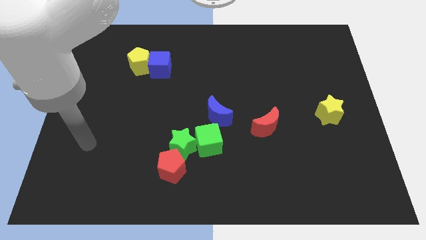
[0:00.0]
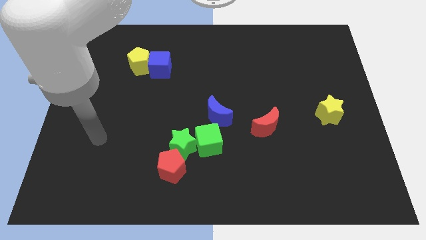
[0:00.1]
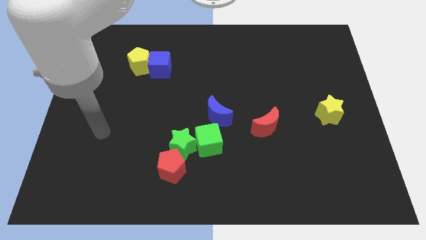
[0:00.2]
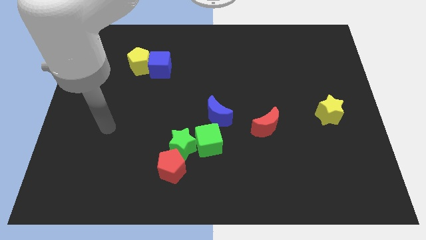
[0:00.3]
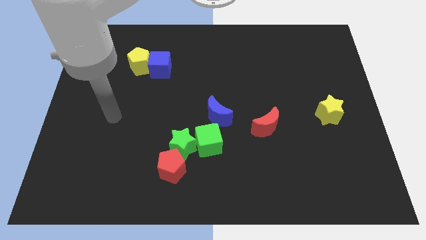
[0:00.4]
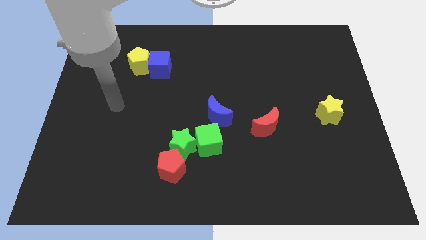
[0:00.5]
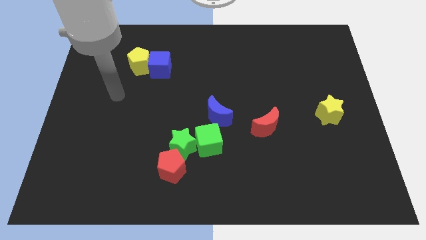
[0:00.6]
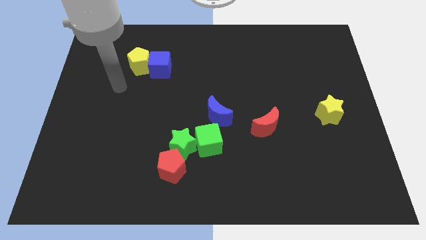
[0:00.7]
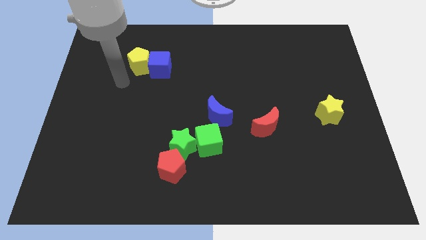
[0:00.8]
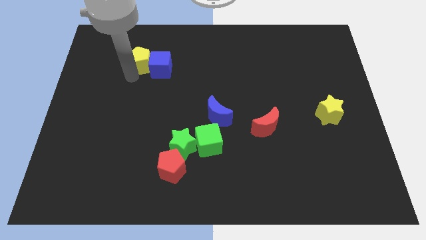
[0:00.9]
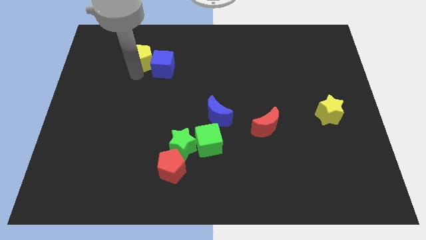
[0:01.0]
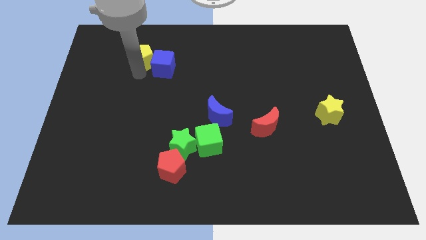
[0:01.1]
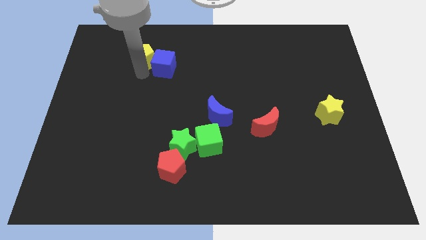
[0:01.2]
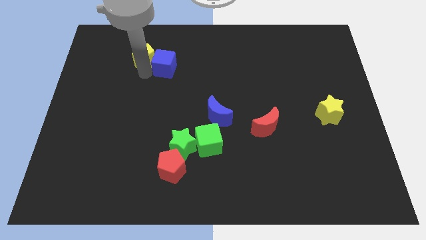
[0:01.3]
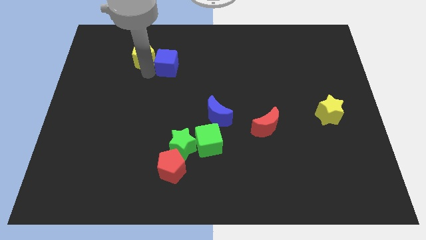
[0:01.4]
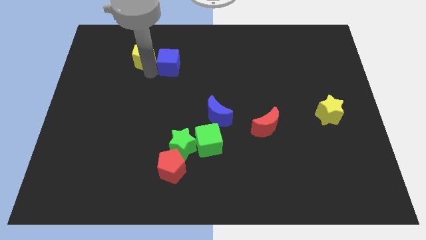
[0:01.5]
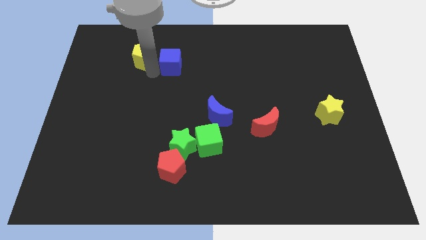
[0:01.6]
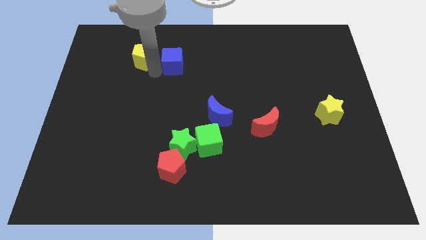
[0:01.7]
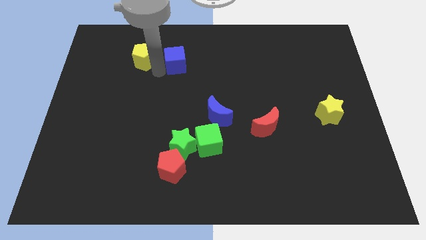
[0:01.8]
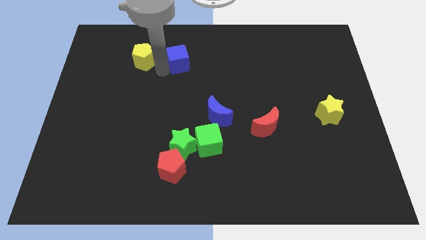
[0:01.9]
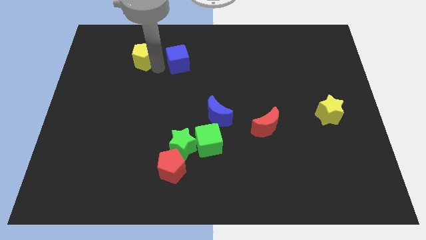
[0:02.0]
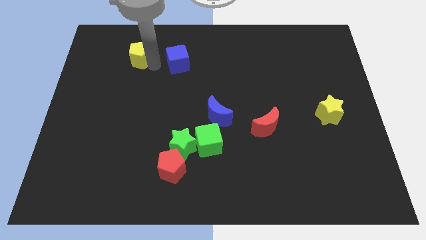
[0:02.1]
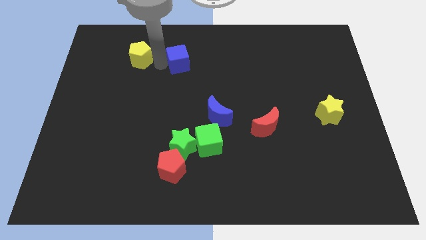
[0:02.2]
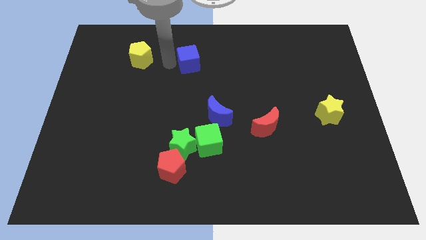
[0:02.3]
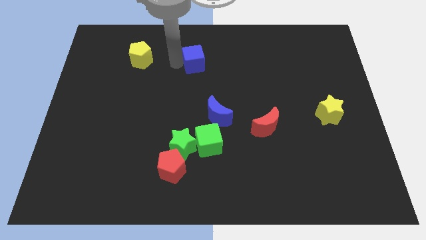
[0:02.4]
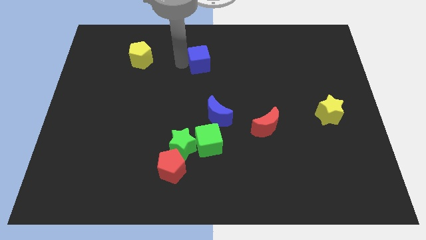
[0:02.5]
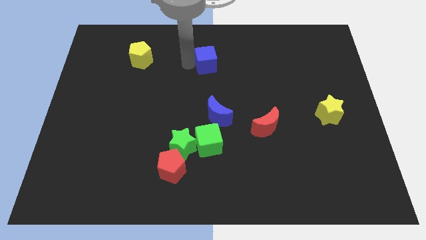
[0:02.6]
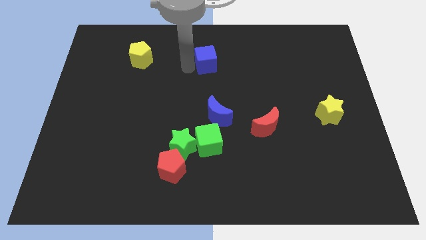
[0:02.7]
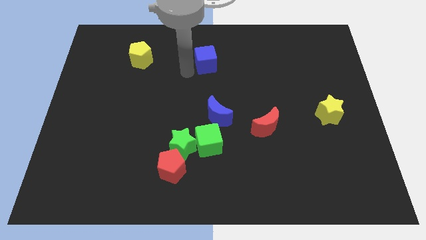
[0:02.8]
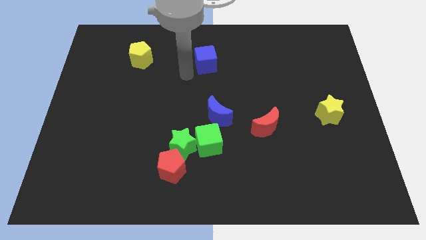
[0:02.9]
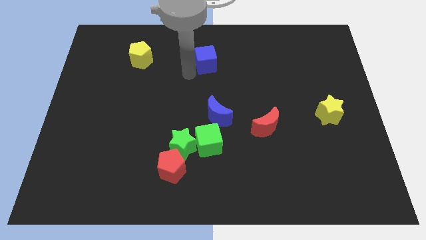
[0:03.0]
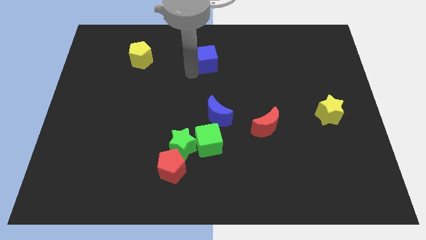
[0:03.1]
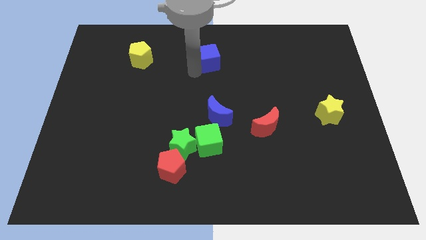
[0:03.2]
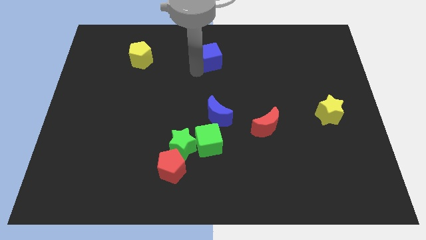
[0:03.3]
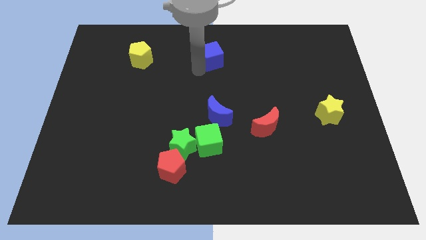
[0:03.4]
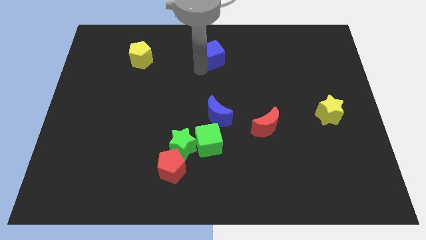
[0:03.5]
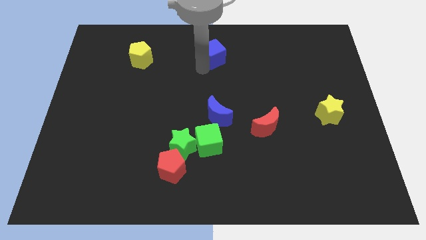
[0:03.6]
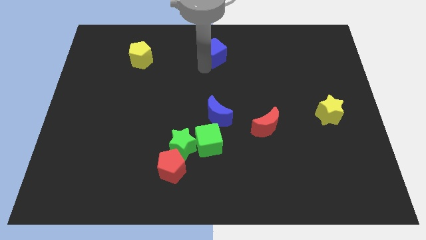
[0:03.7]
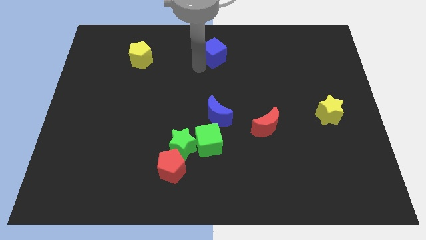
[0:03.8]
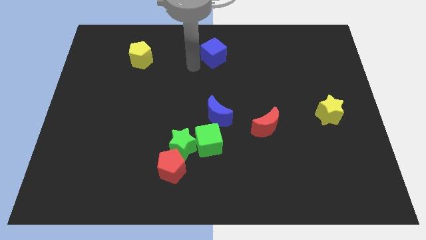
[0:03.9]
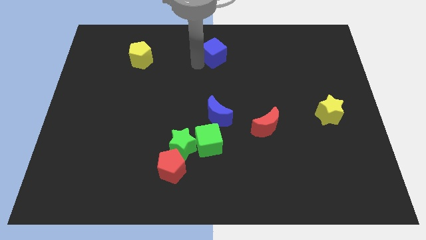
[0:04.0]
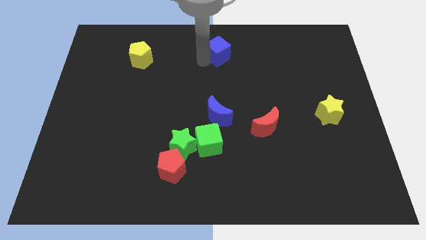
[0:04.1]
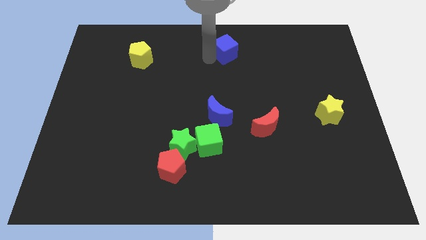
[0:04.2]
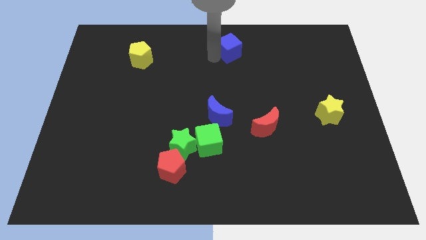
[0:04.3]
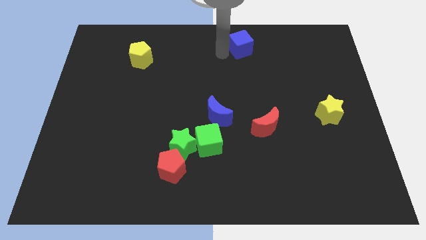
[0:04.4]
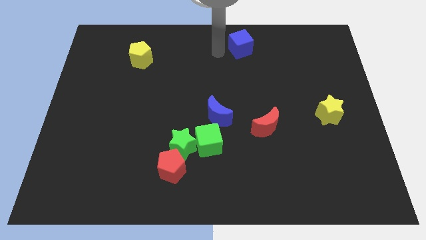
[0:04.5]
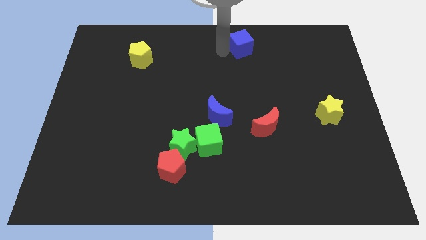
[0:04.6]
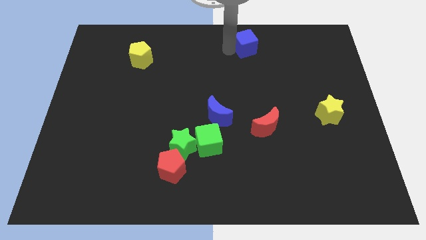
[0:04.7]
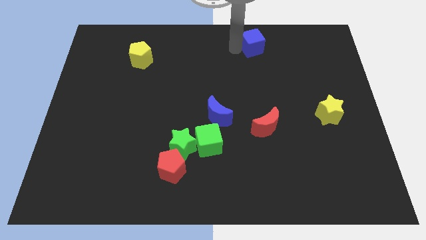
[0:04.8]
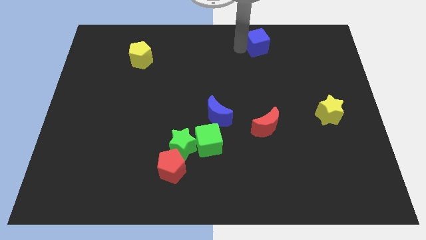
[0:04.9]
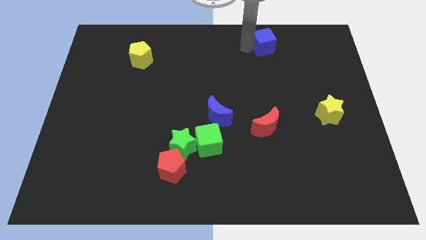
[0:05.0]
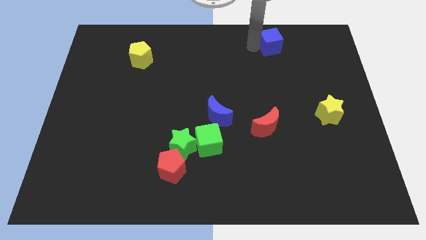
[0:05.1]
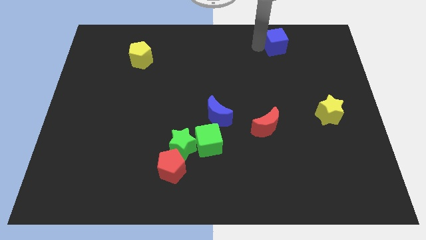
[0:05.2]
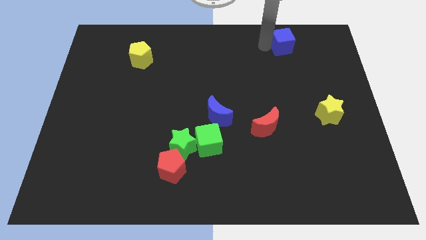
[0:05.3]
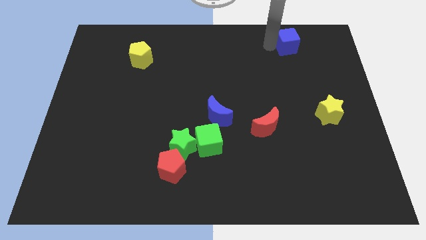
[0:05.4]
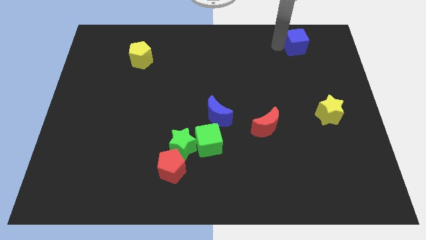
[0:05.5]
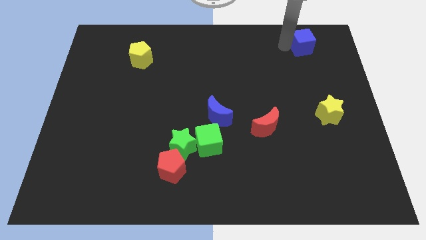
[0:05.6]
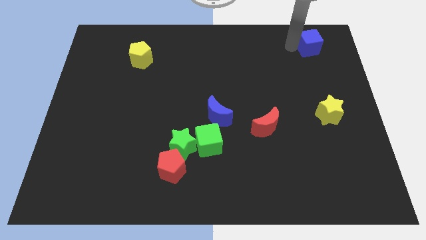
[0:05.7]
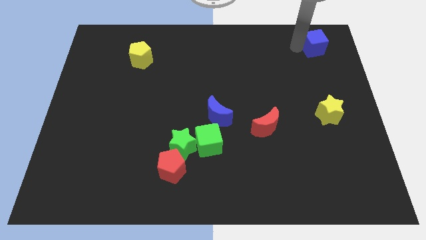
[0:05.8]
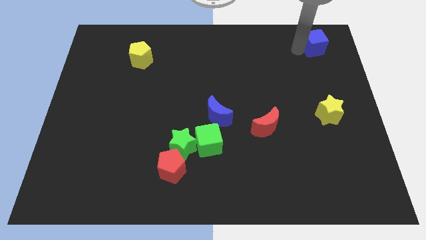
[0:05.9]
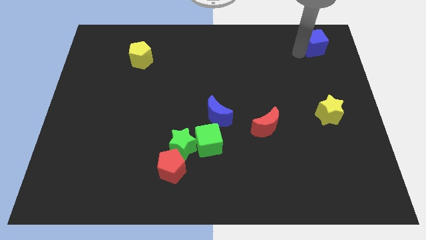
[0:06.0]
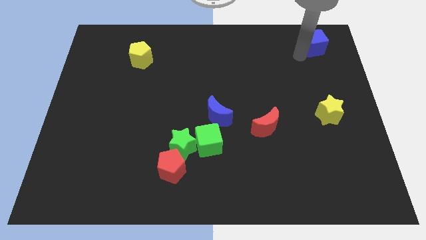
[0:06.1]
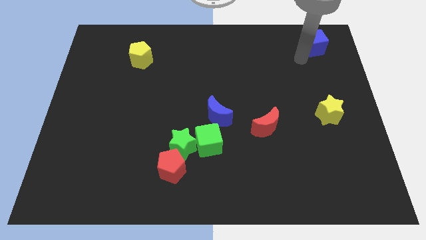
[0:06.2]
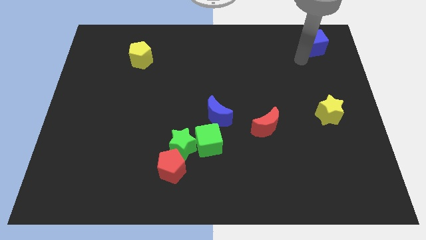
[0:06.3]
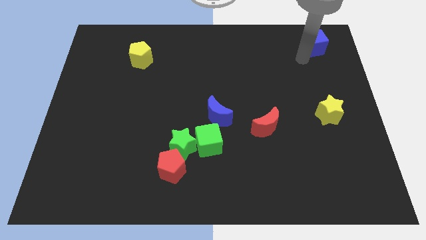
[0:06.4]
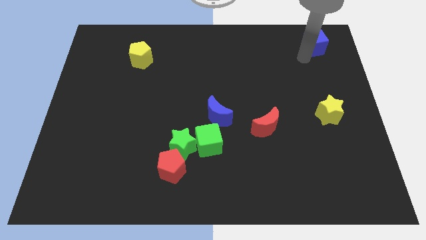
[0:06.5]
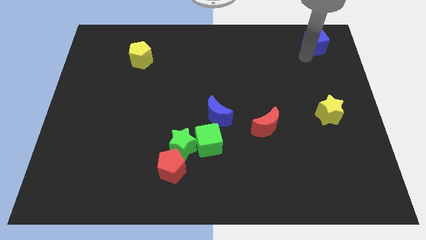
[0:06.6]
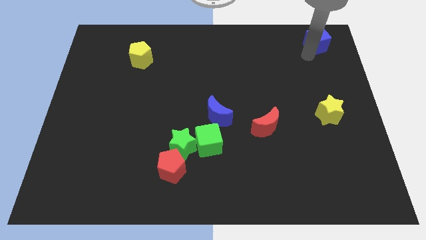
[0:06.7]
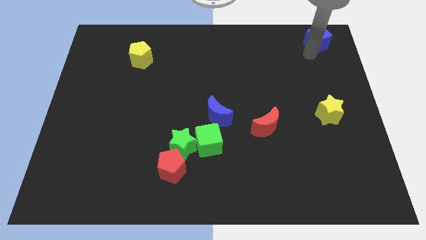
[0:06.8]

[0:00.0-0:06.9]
slide the blue cube to the upper right corner
